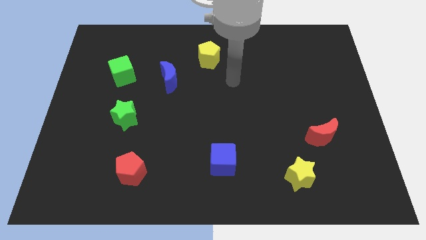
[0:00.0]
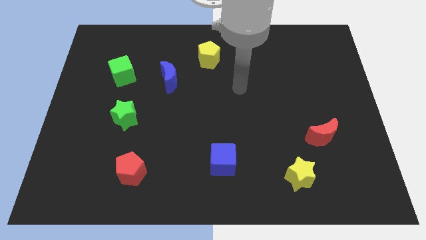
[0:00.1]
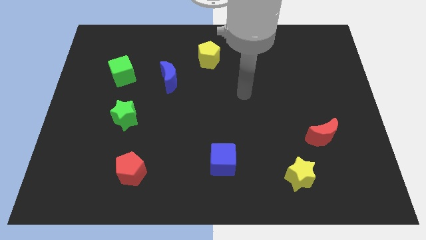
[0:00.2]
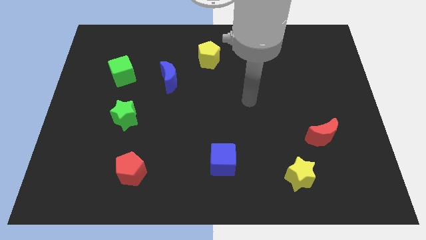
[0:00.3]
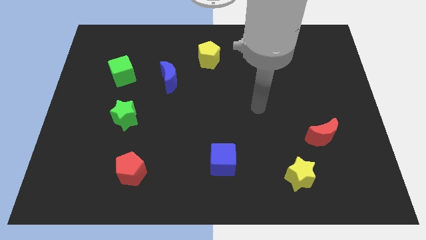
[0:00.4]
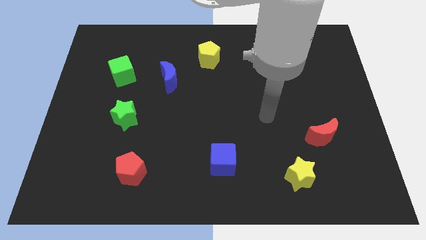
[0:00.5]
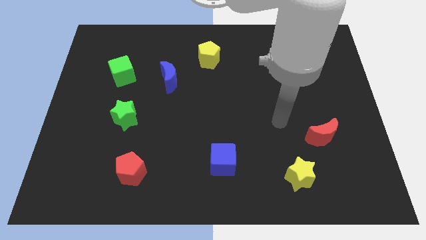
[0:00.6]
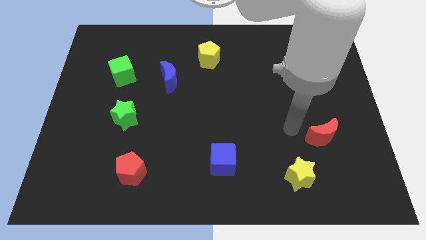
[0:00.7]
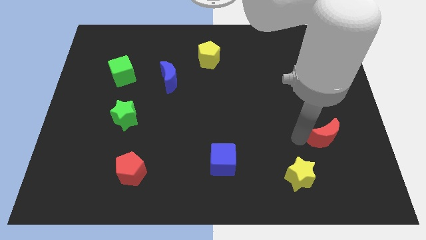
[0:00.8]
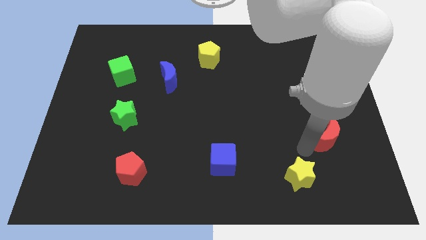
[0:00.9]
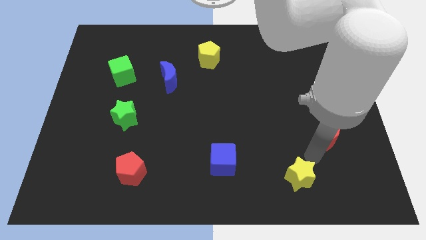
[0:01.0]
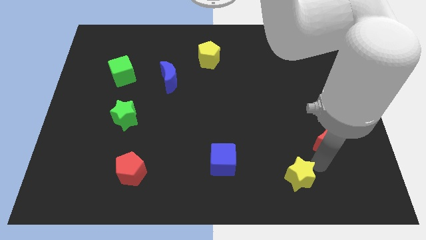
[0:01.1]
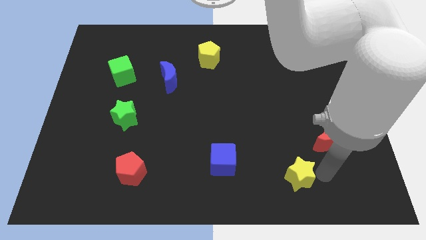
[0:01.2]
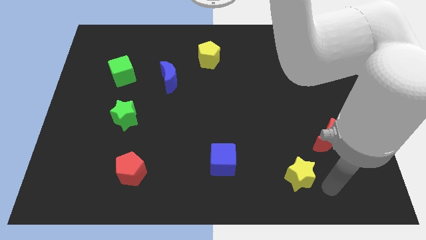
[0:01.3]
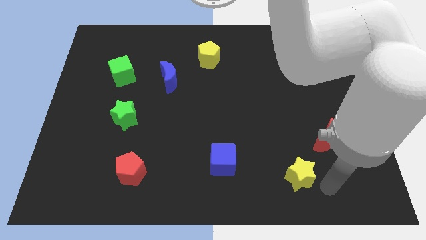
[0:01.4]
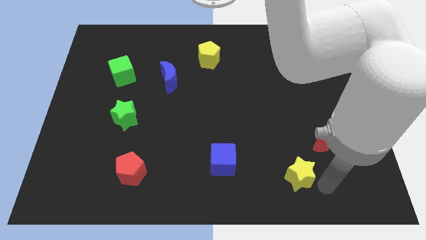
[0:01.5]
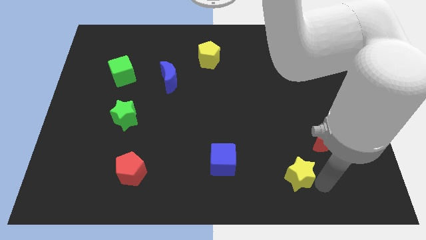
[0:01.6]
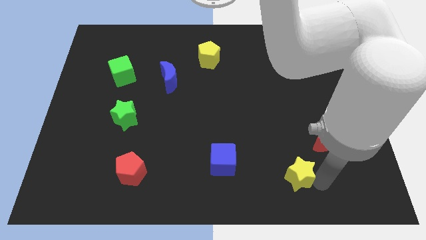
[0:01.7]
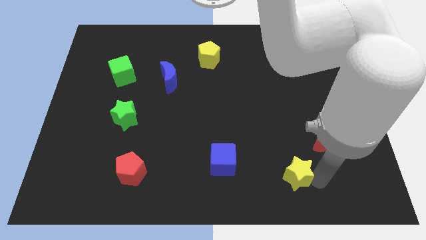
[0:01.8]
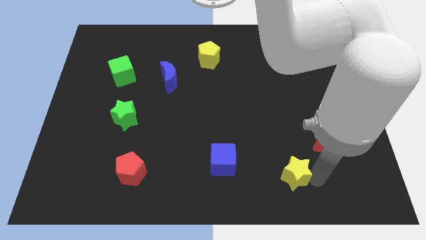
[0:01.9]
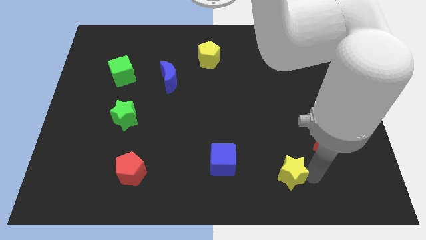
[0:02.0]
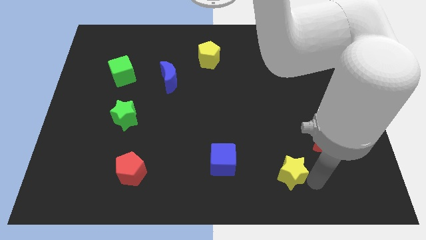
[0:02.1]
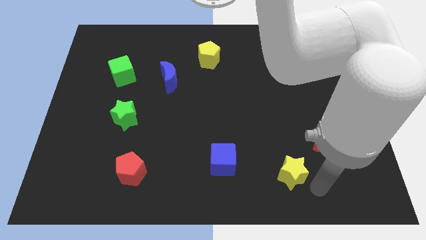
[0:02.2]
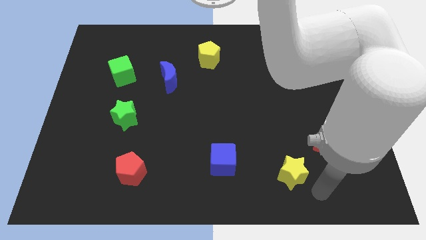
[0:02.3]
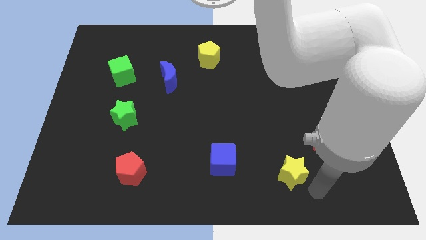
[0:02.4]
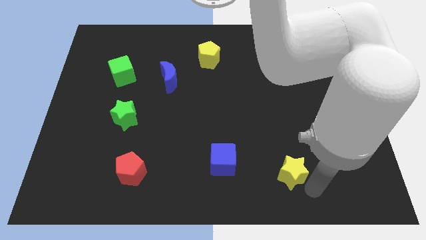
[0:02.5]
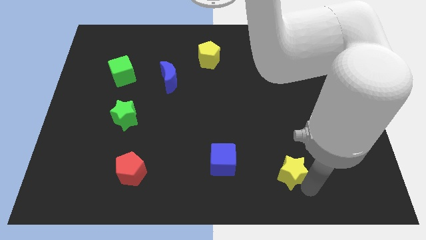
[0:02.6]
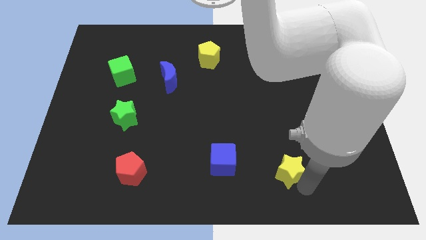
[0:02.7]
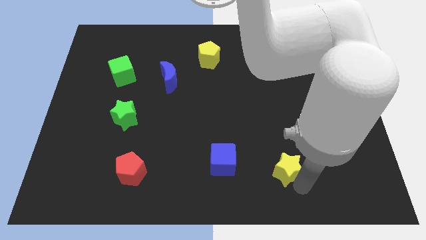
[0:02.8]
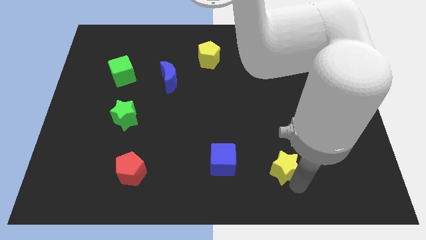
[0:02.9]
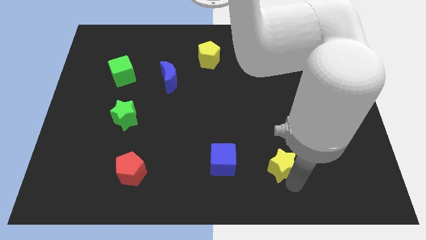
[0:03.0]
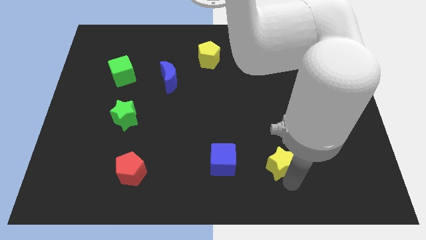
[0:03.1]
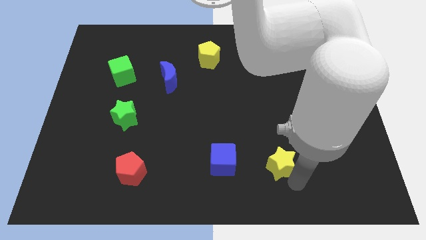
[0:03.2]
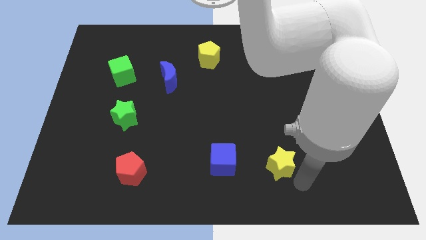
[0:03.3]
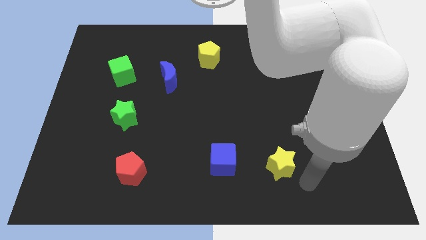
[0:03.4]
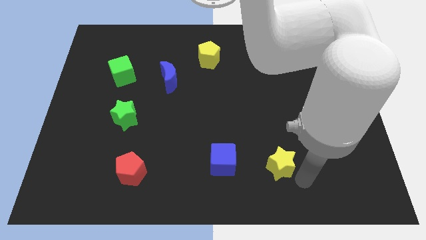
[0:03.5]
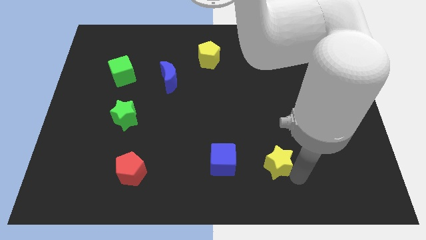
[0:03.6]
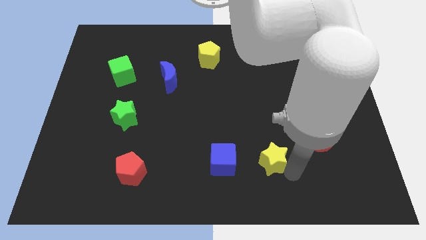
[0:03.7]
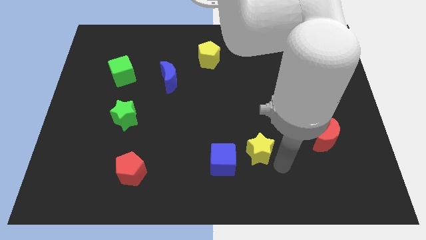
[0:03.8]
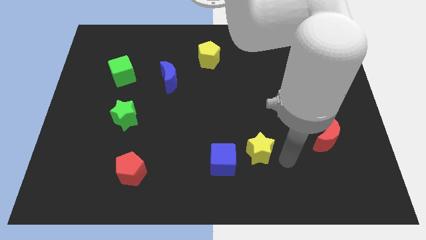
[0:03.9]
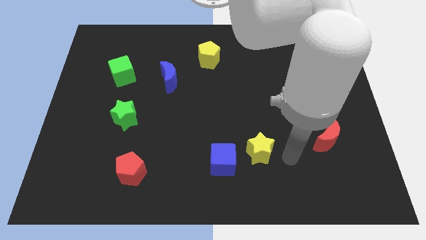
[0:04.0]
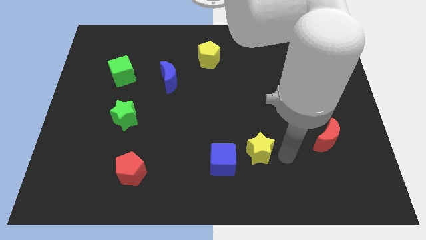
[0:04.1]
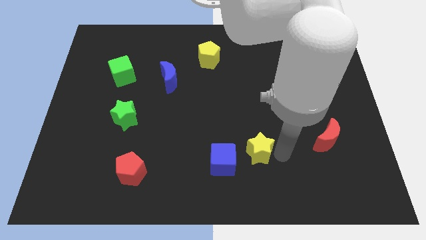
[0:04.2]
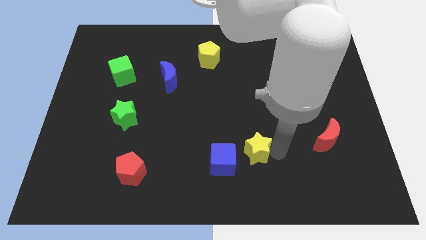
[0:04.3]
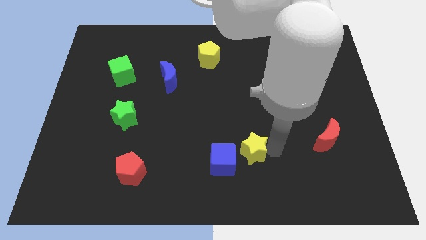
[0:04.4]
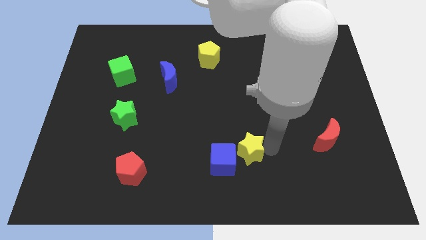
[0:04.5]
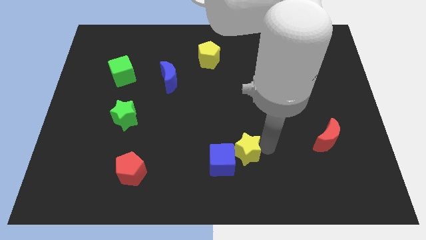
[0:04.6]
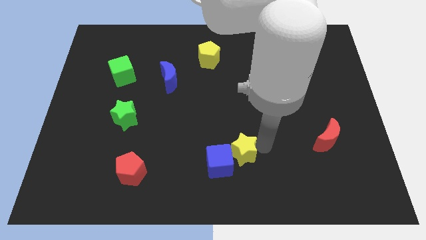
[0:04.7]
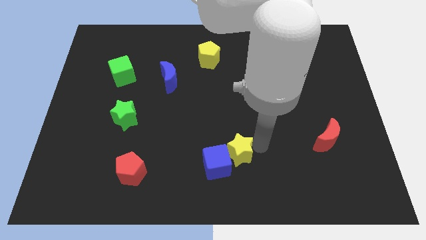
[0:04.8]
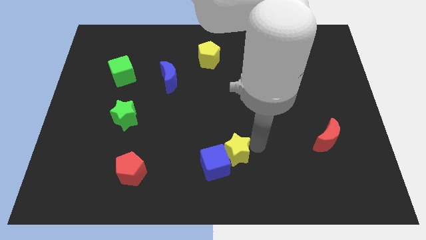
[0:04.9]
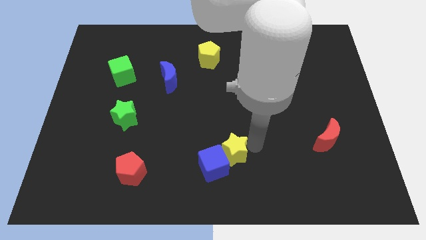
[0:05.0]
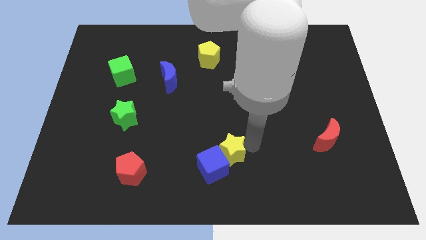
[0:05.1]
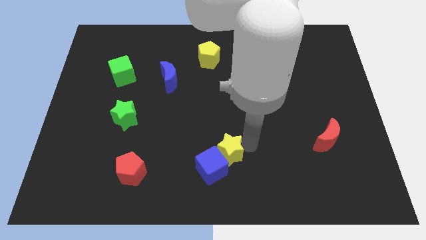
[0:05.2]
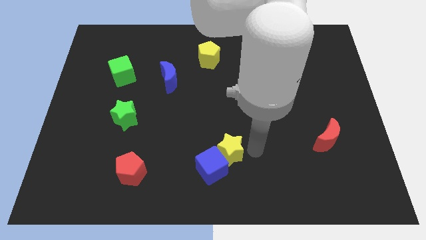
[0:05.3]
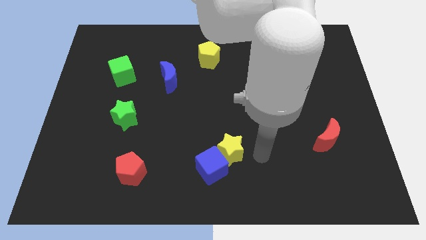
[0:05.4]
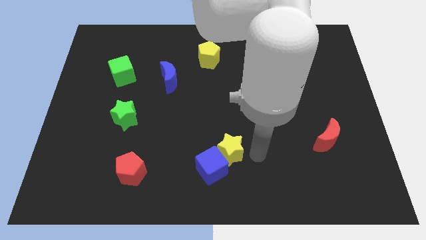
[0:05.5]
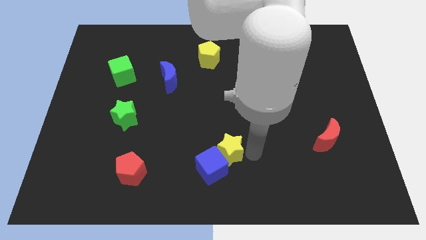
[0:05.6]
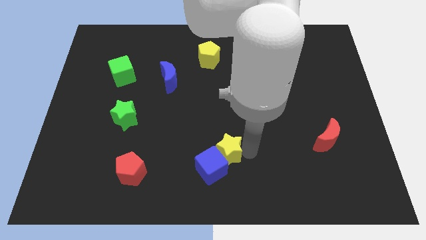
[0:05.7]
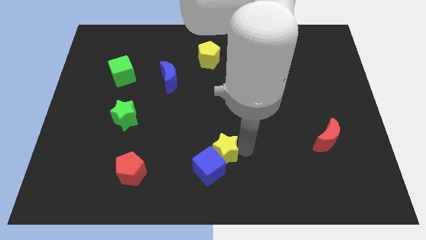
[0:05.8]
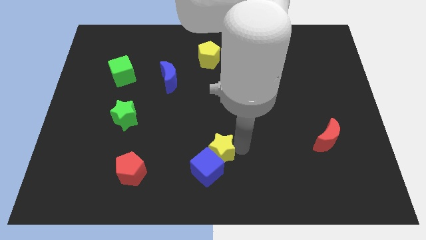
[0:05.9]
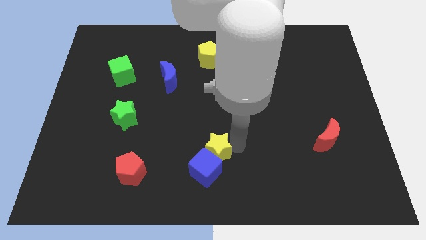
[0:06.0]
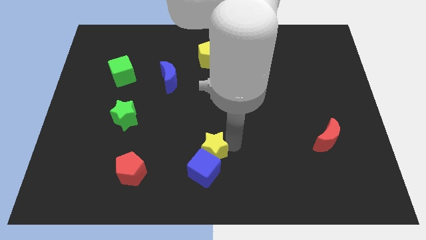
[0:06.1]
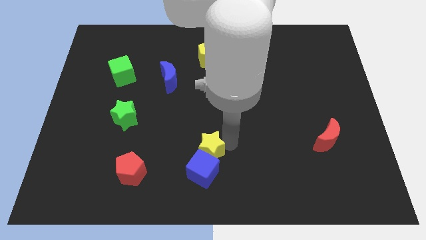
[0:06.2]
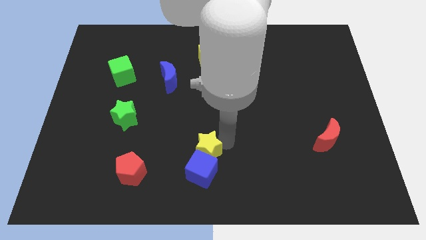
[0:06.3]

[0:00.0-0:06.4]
slide the yellow star to the top left of the blue cube
